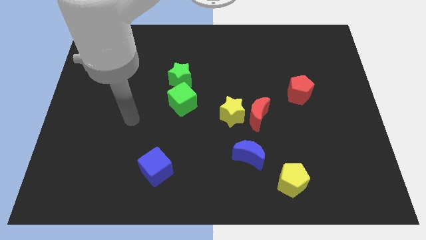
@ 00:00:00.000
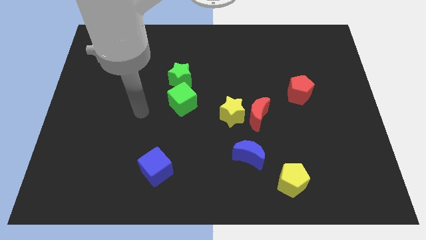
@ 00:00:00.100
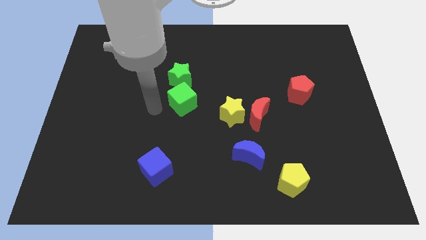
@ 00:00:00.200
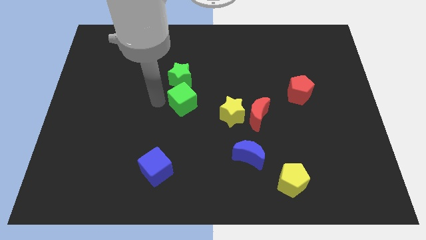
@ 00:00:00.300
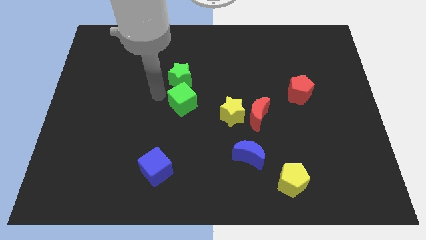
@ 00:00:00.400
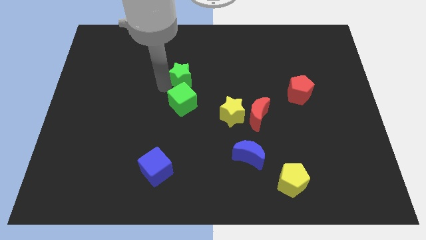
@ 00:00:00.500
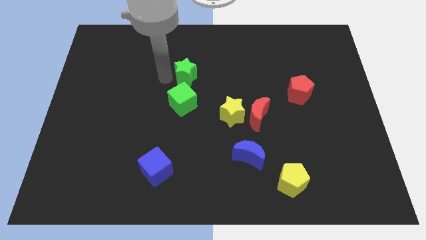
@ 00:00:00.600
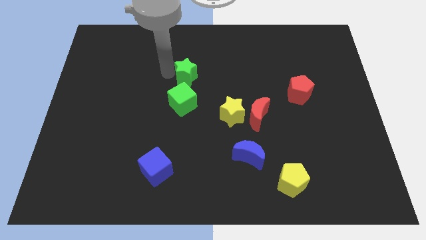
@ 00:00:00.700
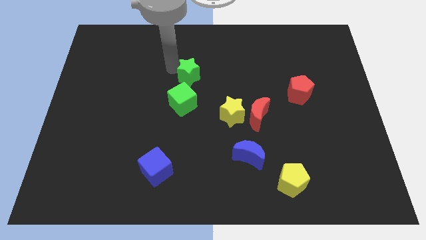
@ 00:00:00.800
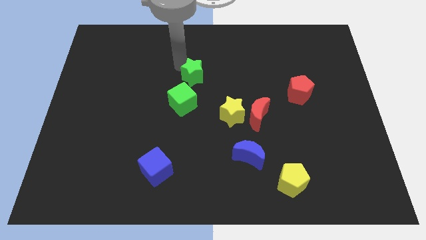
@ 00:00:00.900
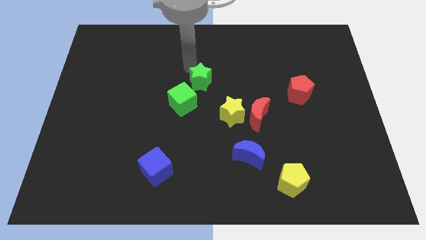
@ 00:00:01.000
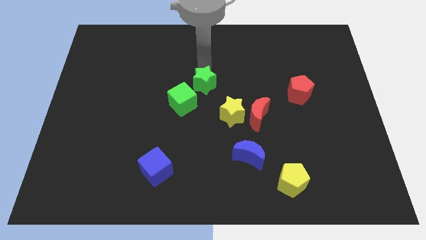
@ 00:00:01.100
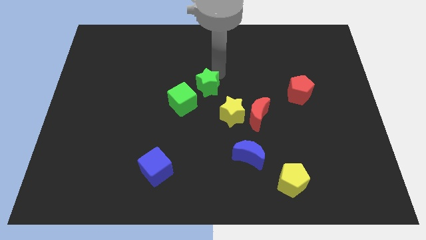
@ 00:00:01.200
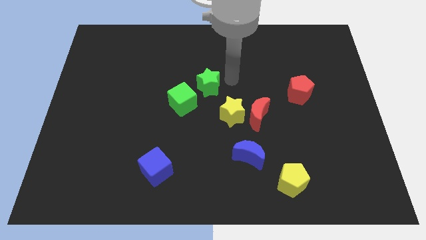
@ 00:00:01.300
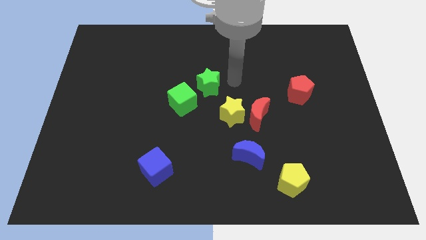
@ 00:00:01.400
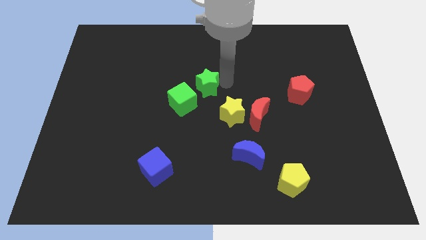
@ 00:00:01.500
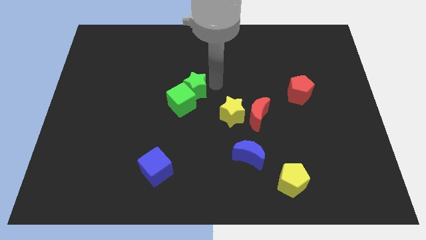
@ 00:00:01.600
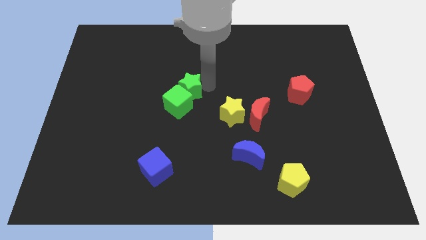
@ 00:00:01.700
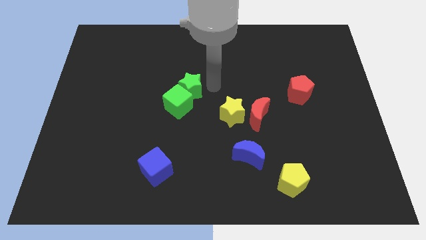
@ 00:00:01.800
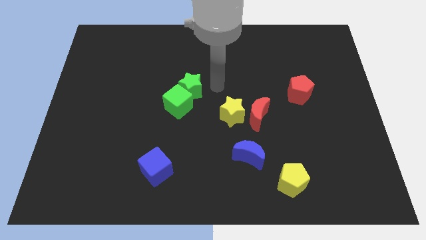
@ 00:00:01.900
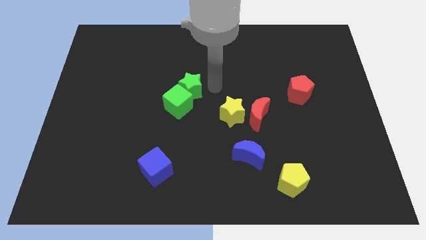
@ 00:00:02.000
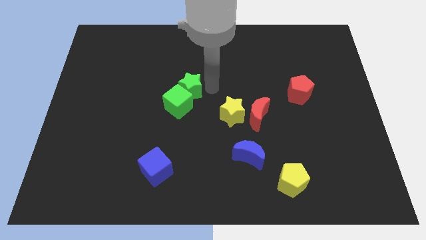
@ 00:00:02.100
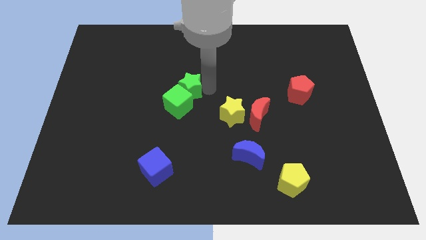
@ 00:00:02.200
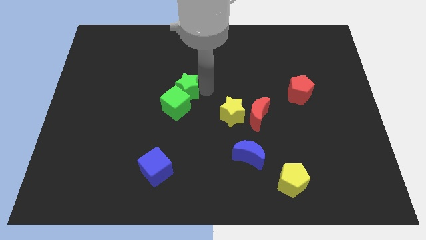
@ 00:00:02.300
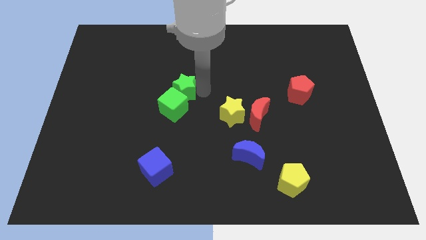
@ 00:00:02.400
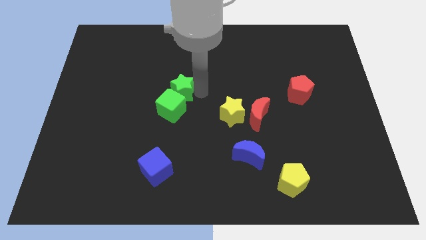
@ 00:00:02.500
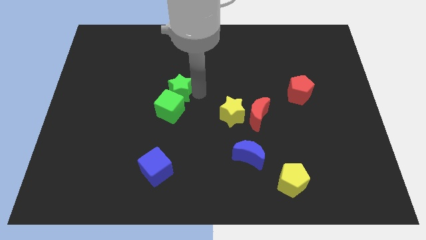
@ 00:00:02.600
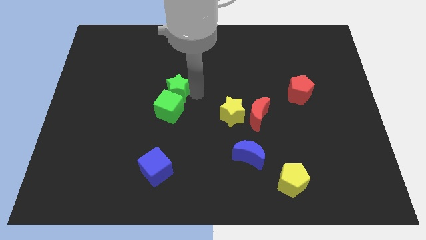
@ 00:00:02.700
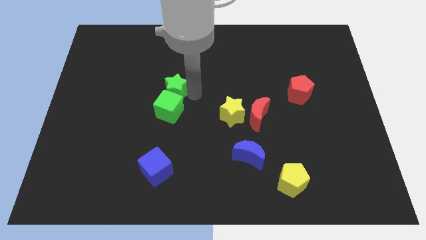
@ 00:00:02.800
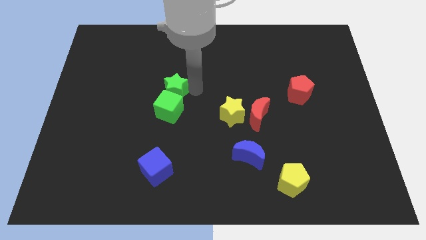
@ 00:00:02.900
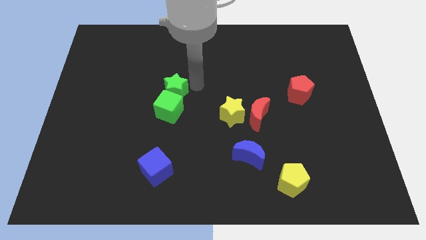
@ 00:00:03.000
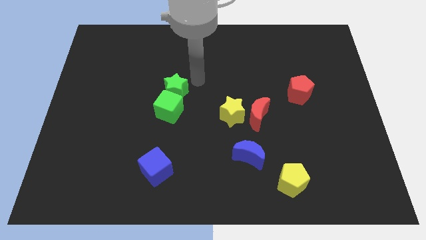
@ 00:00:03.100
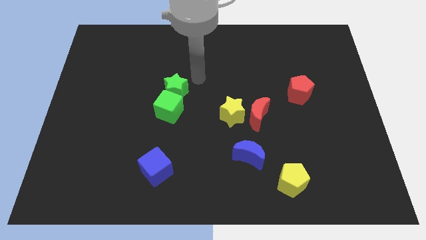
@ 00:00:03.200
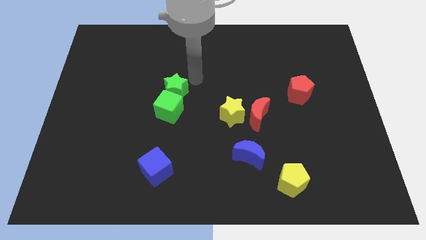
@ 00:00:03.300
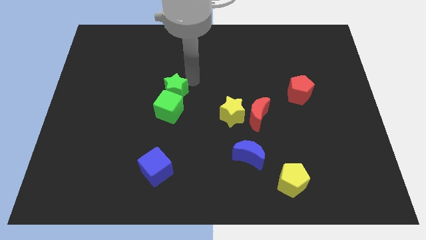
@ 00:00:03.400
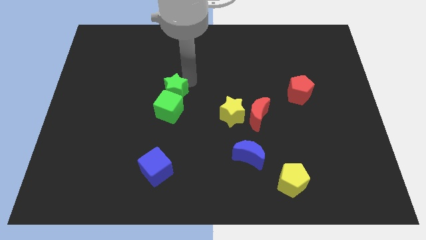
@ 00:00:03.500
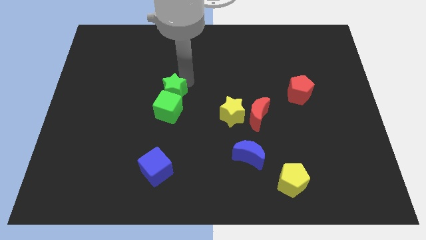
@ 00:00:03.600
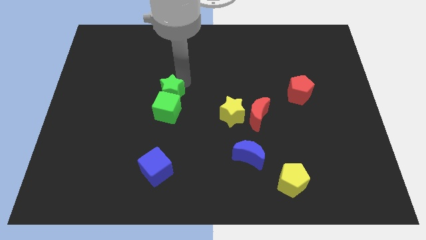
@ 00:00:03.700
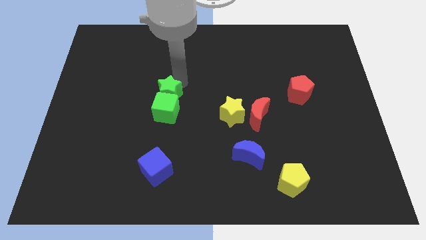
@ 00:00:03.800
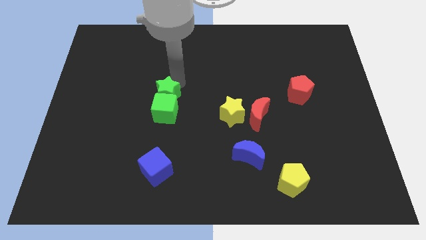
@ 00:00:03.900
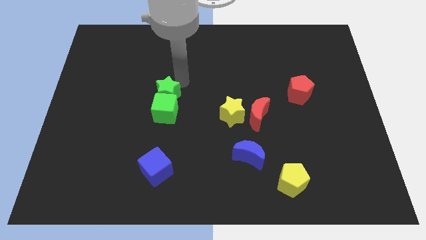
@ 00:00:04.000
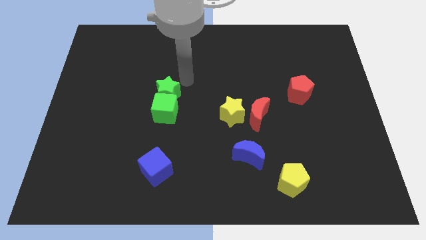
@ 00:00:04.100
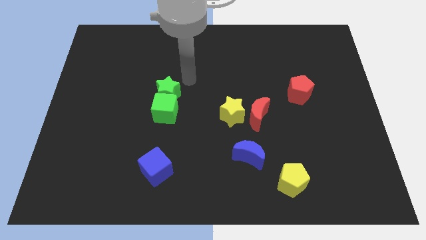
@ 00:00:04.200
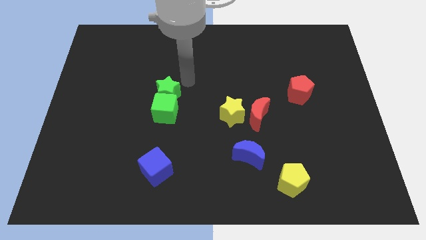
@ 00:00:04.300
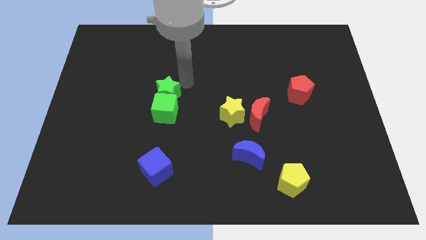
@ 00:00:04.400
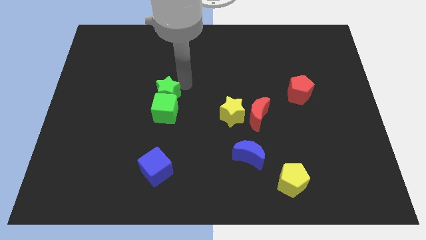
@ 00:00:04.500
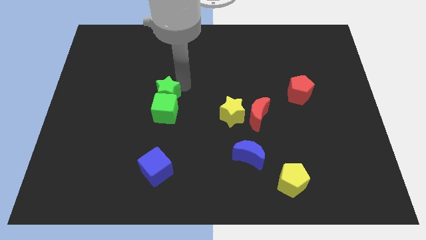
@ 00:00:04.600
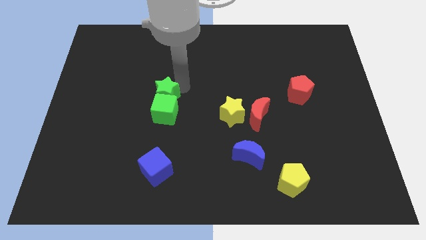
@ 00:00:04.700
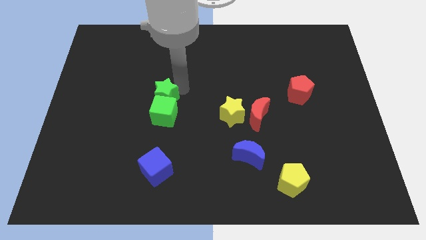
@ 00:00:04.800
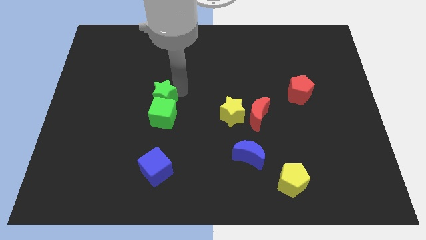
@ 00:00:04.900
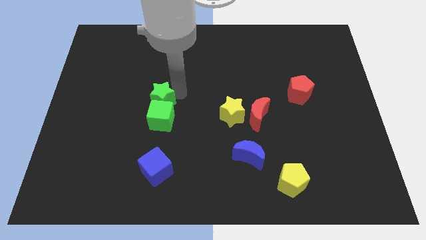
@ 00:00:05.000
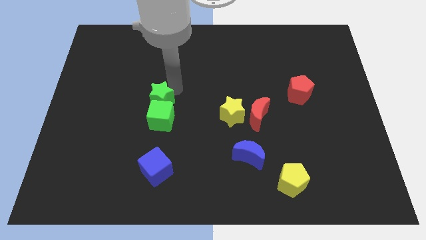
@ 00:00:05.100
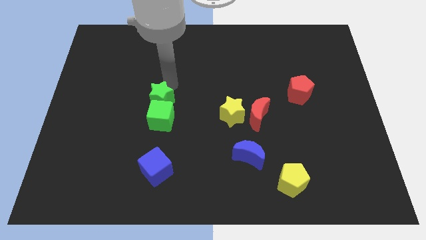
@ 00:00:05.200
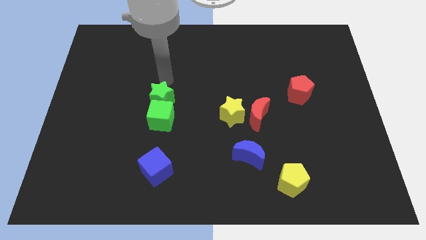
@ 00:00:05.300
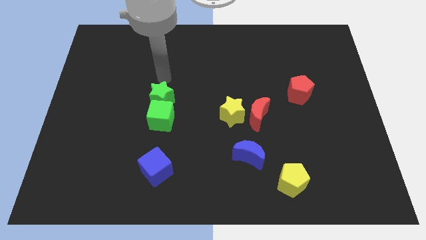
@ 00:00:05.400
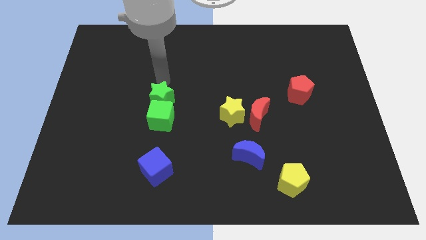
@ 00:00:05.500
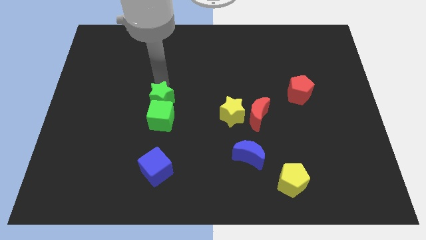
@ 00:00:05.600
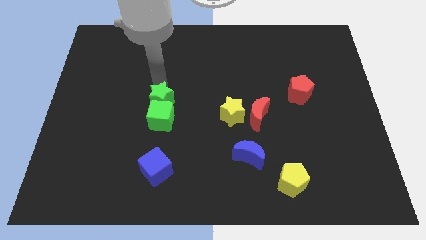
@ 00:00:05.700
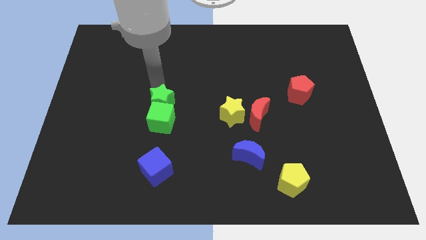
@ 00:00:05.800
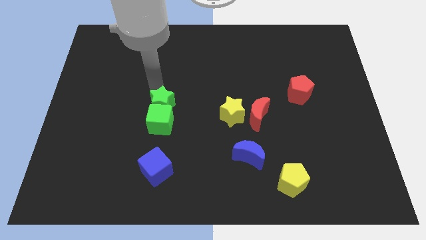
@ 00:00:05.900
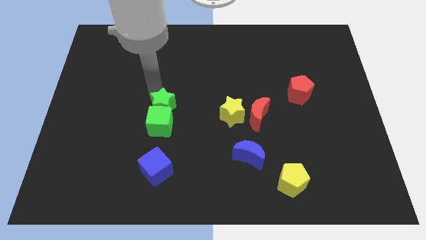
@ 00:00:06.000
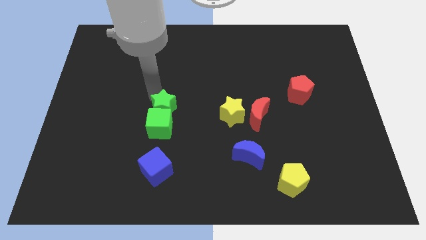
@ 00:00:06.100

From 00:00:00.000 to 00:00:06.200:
move the green star to the top side of the blue cube

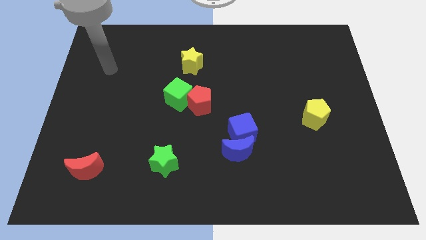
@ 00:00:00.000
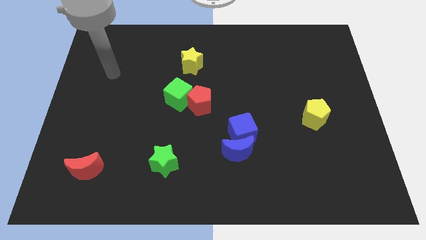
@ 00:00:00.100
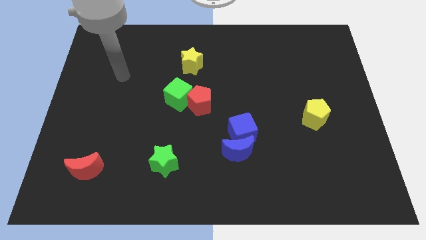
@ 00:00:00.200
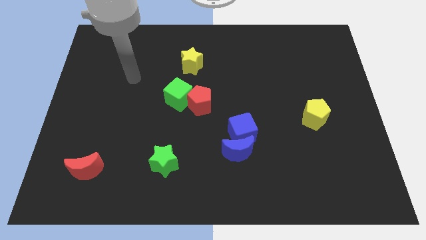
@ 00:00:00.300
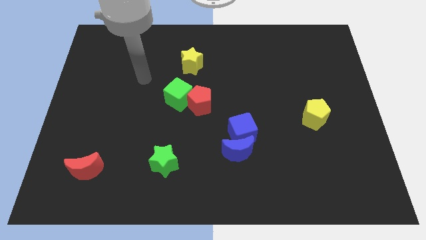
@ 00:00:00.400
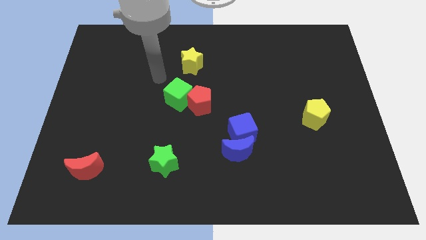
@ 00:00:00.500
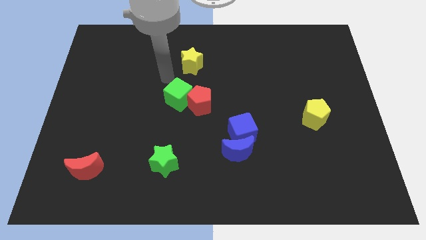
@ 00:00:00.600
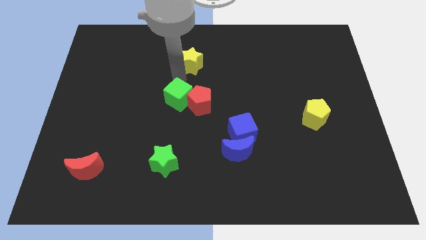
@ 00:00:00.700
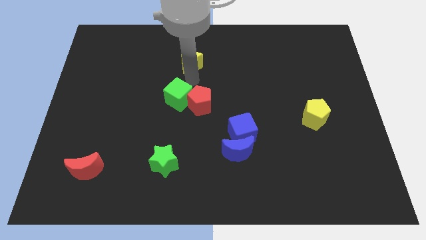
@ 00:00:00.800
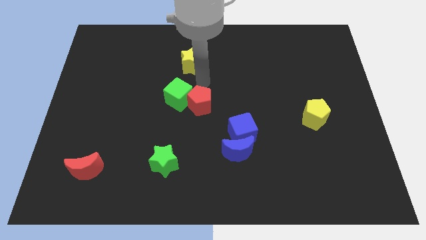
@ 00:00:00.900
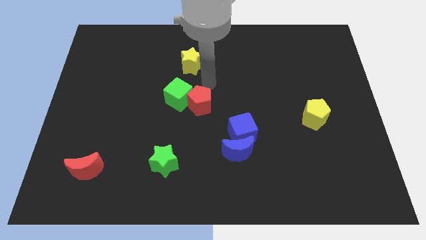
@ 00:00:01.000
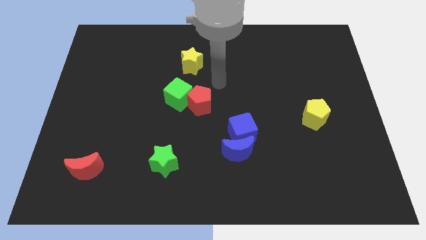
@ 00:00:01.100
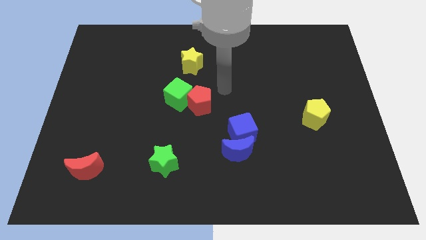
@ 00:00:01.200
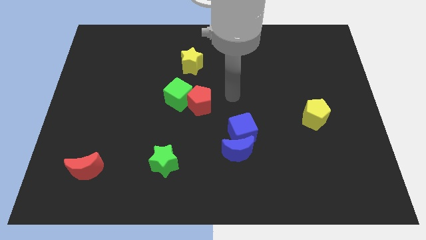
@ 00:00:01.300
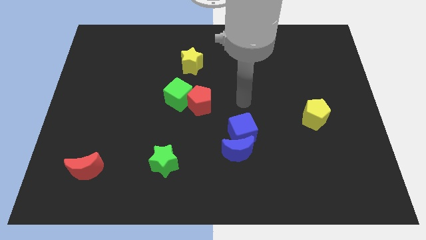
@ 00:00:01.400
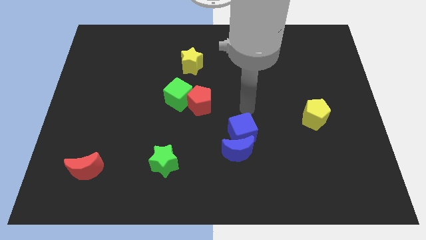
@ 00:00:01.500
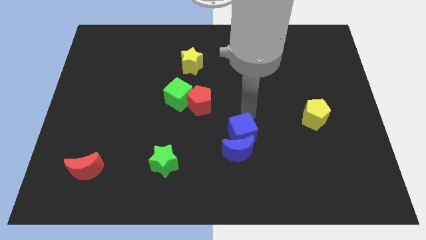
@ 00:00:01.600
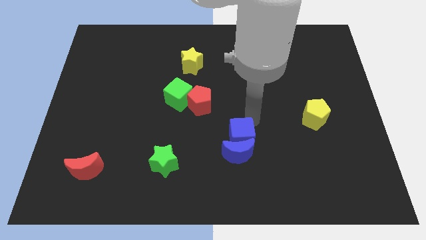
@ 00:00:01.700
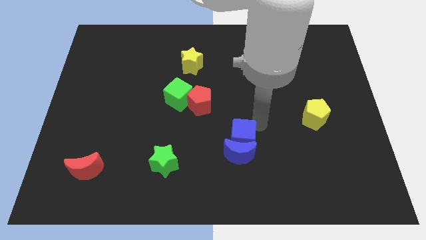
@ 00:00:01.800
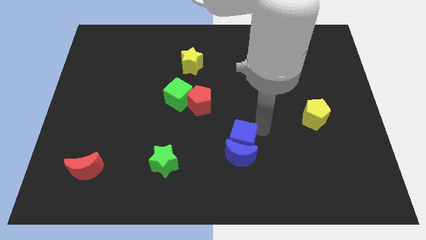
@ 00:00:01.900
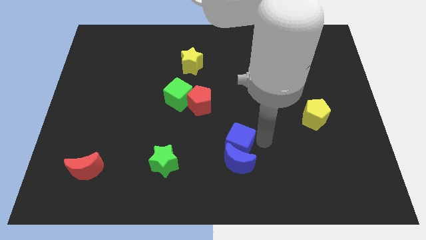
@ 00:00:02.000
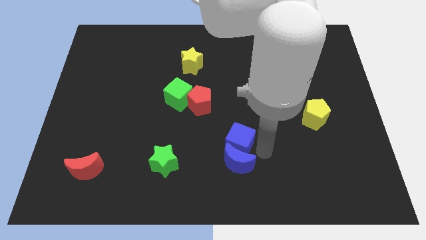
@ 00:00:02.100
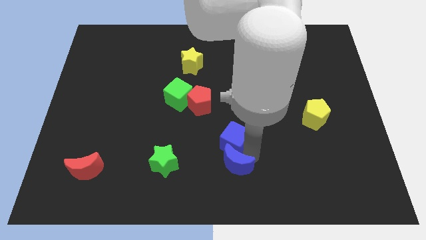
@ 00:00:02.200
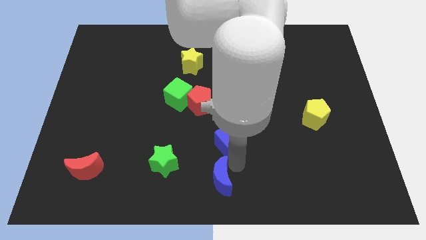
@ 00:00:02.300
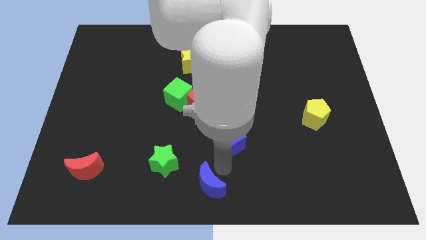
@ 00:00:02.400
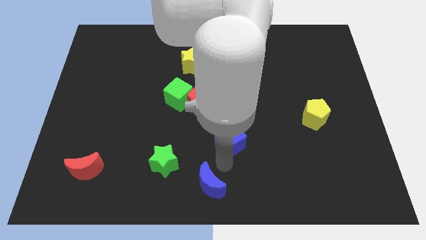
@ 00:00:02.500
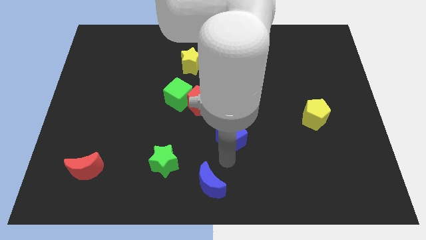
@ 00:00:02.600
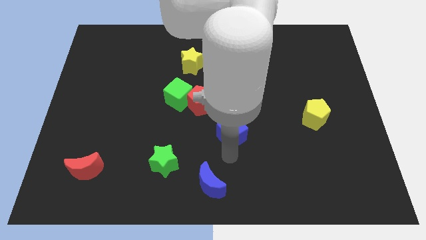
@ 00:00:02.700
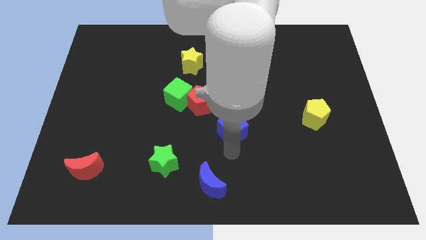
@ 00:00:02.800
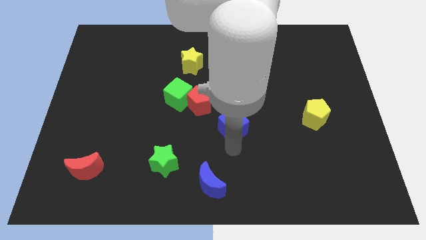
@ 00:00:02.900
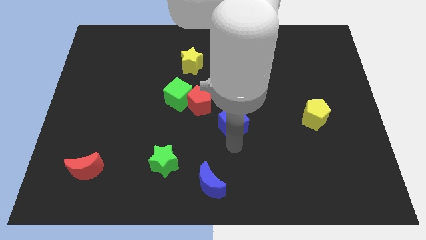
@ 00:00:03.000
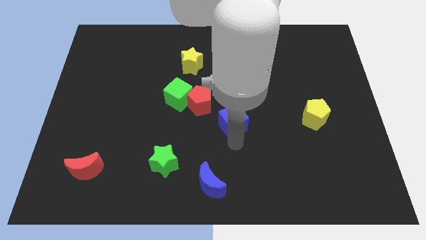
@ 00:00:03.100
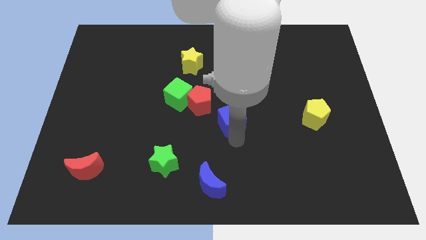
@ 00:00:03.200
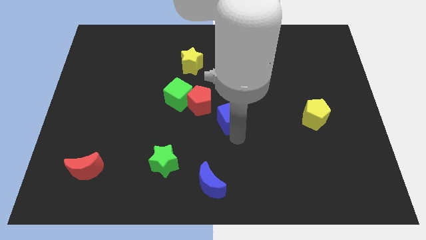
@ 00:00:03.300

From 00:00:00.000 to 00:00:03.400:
move the blue cube just right of the red pentagon
